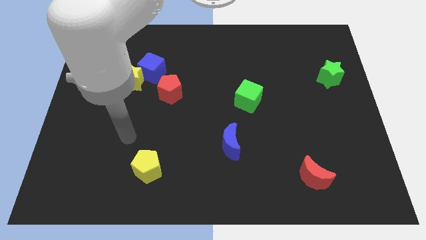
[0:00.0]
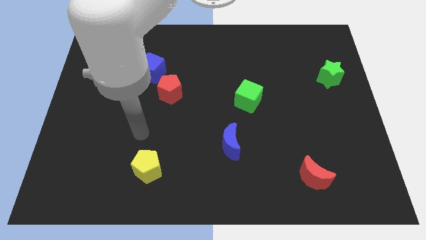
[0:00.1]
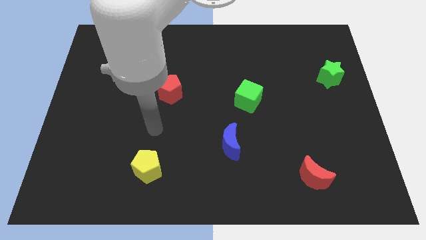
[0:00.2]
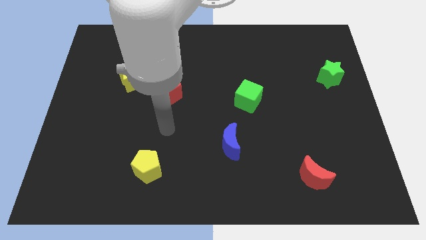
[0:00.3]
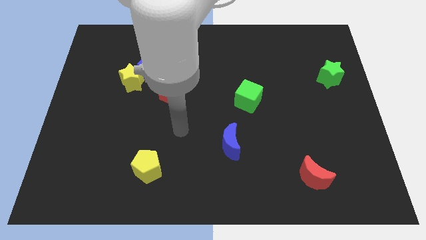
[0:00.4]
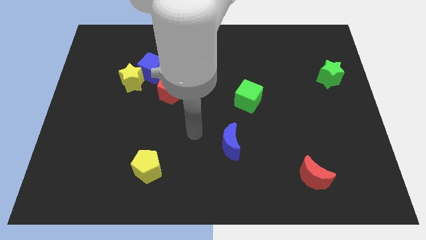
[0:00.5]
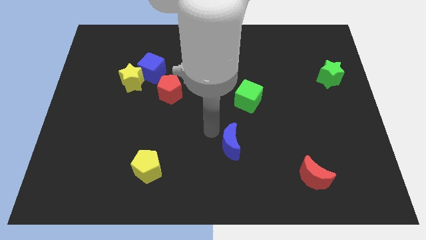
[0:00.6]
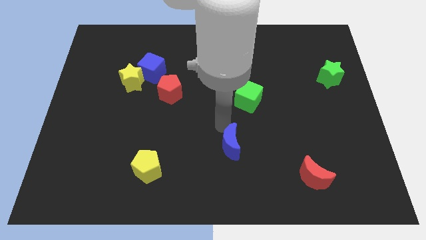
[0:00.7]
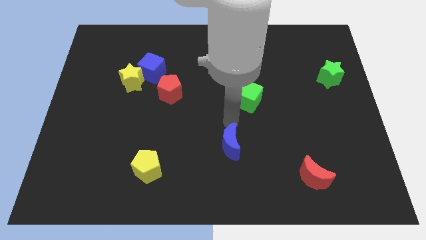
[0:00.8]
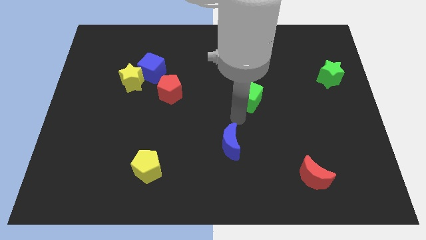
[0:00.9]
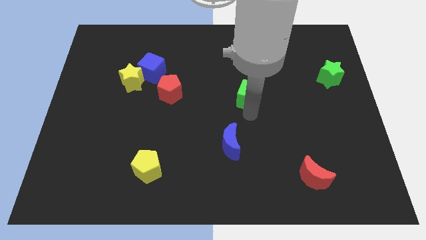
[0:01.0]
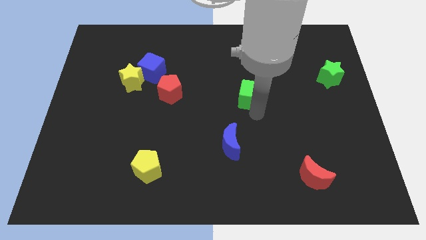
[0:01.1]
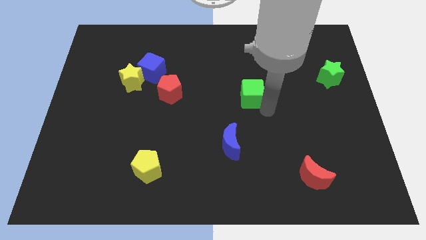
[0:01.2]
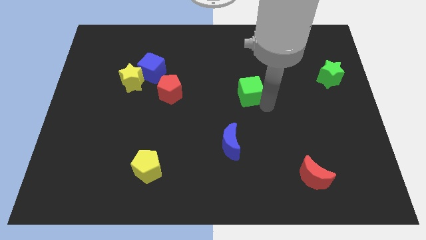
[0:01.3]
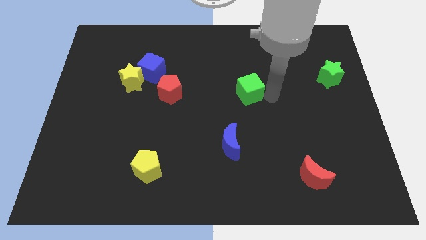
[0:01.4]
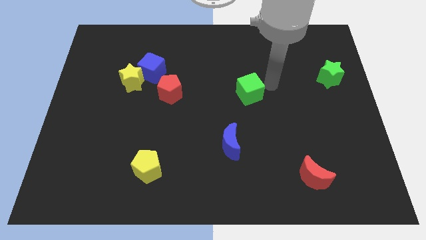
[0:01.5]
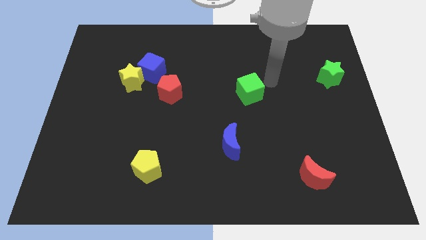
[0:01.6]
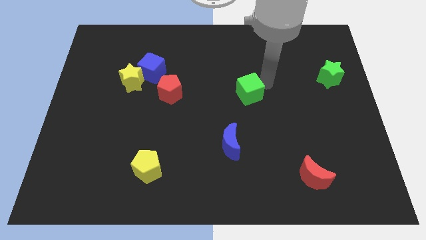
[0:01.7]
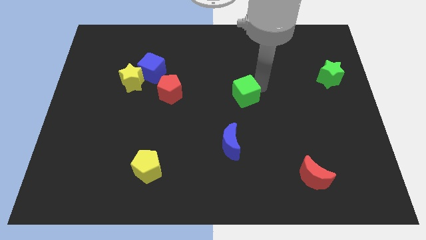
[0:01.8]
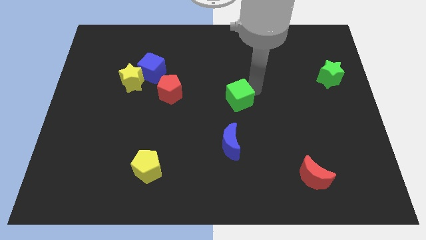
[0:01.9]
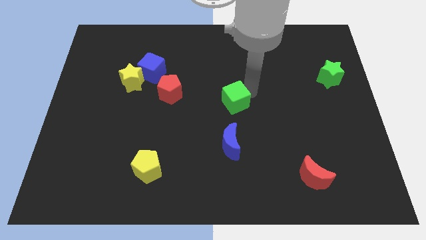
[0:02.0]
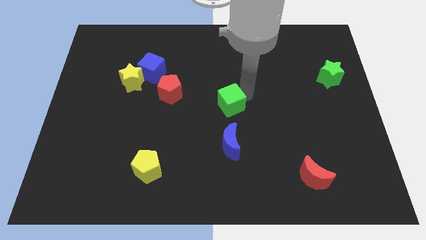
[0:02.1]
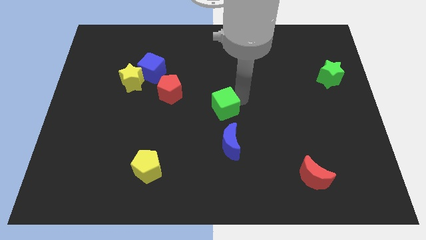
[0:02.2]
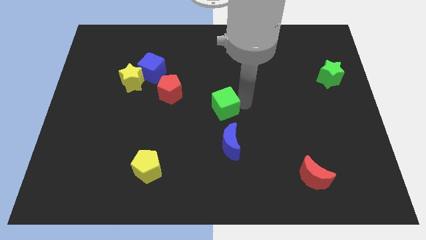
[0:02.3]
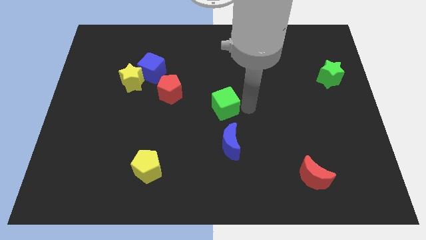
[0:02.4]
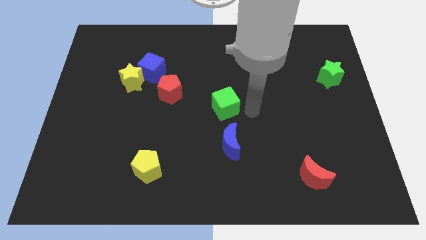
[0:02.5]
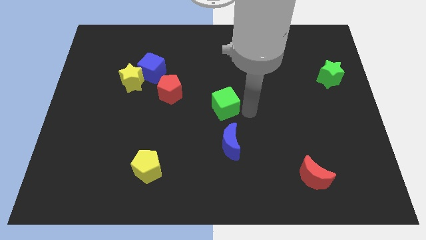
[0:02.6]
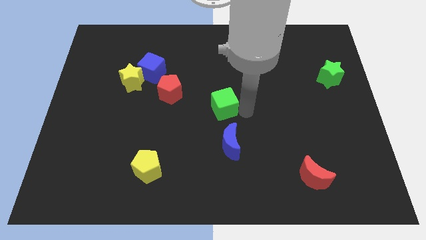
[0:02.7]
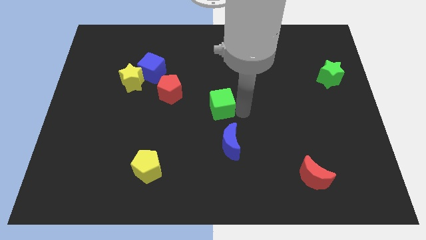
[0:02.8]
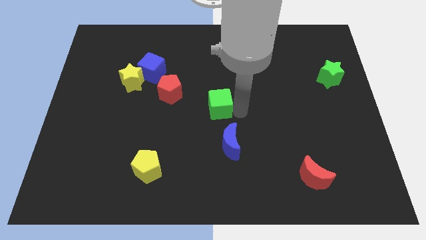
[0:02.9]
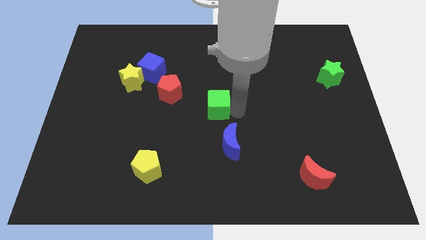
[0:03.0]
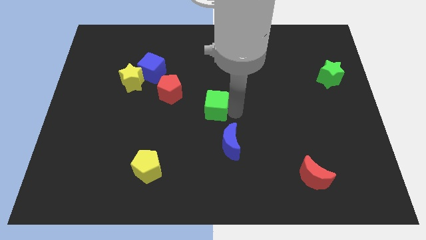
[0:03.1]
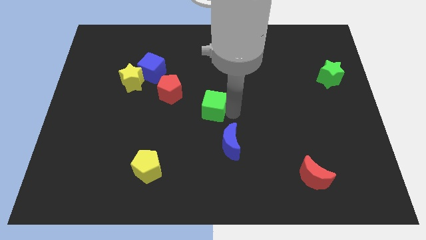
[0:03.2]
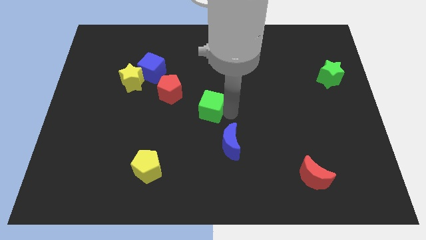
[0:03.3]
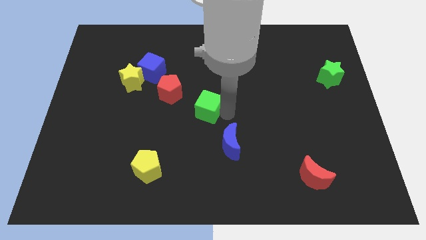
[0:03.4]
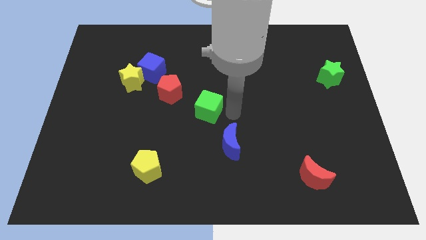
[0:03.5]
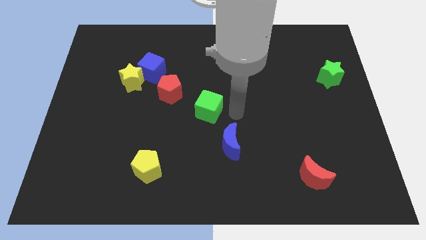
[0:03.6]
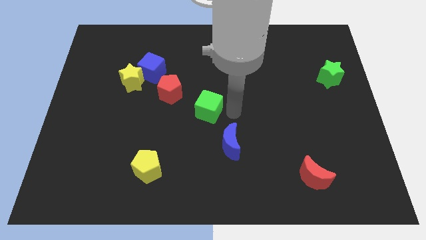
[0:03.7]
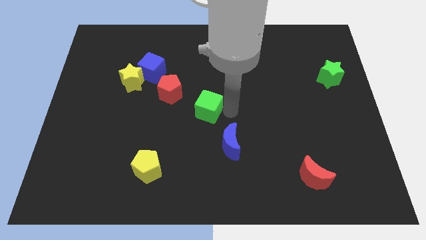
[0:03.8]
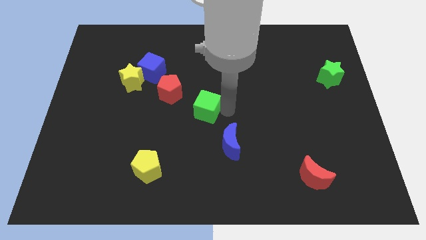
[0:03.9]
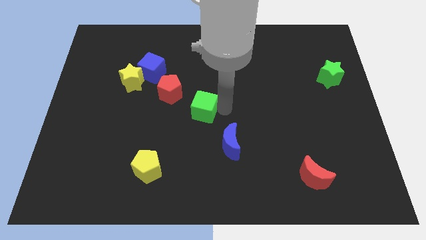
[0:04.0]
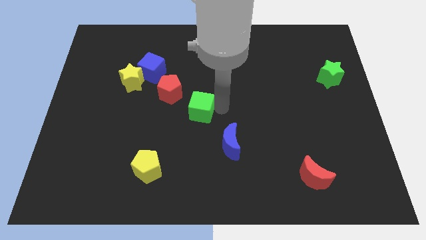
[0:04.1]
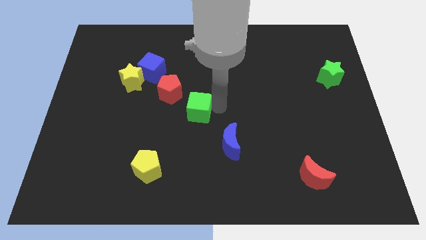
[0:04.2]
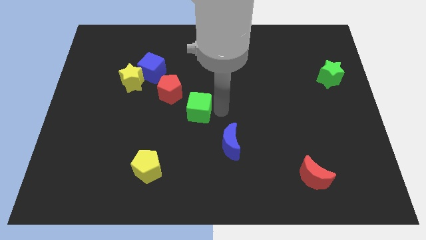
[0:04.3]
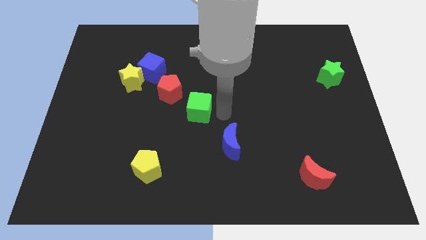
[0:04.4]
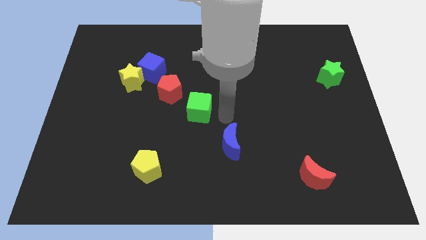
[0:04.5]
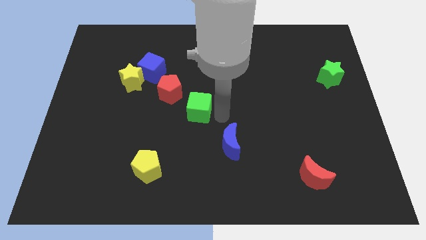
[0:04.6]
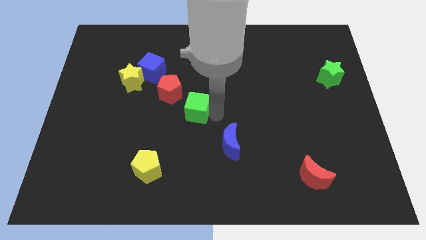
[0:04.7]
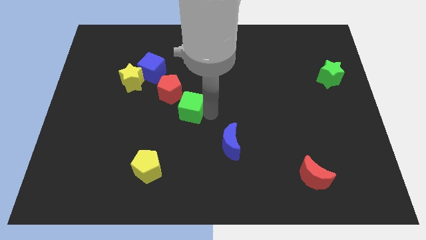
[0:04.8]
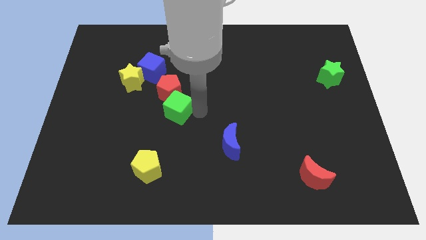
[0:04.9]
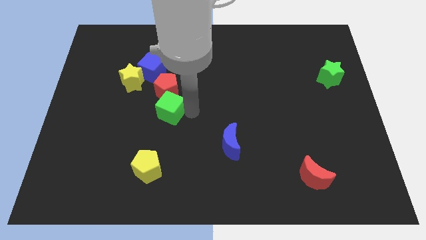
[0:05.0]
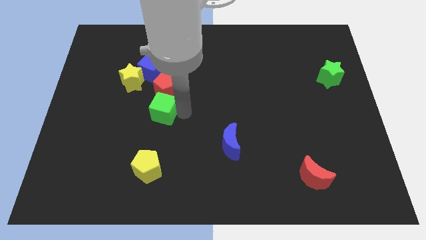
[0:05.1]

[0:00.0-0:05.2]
move the green cube diagonally down and to the right of the yellow star

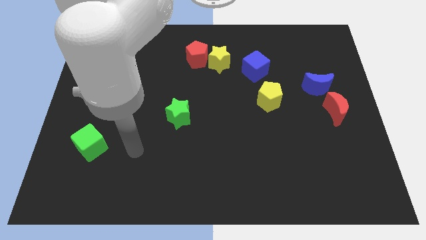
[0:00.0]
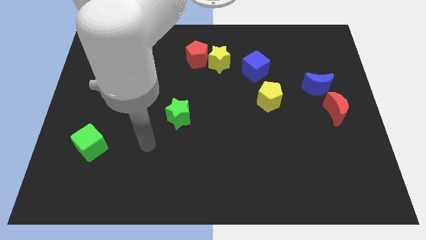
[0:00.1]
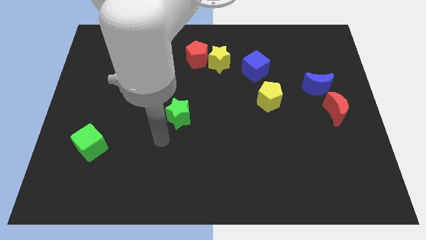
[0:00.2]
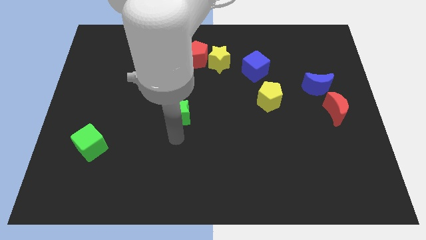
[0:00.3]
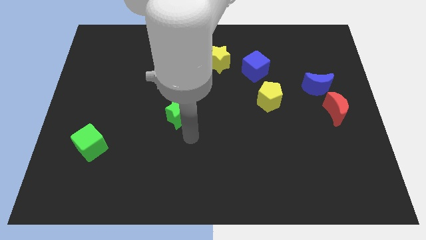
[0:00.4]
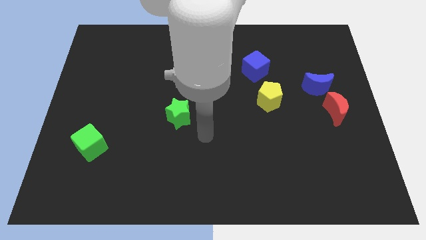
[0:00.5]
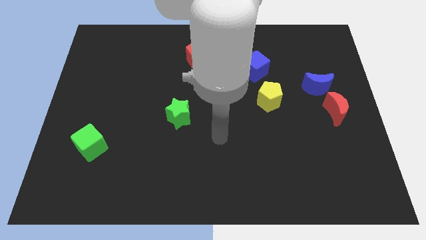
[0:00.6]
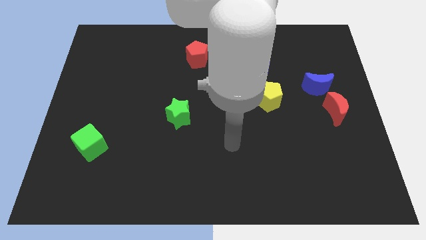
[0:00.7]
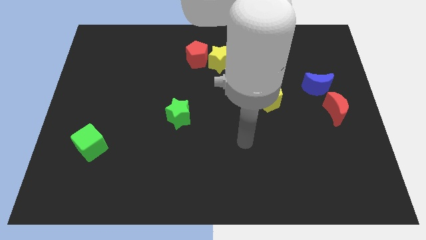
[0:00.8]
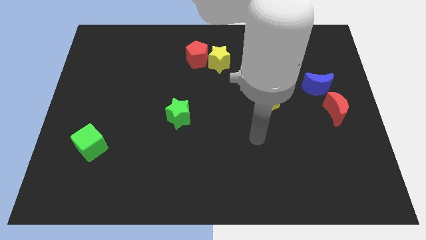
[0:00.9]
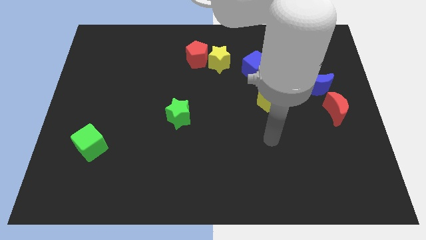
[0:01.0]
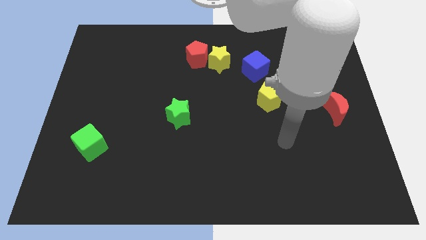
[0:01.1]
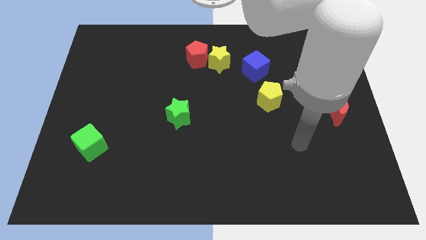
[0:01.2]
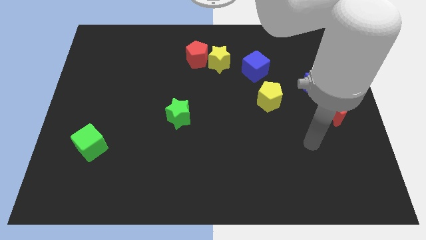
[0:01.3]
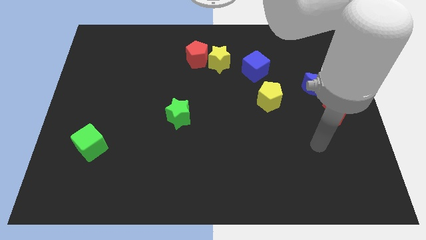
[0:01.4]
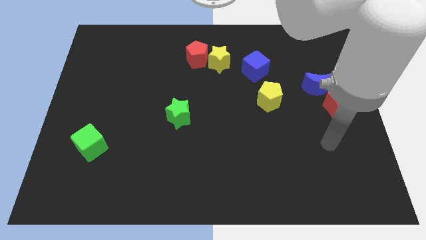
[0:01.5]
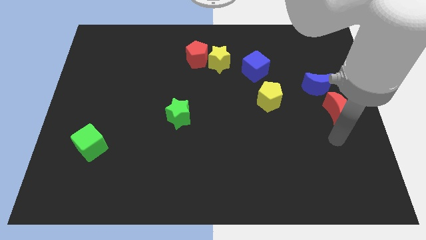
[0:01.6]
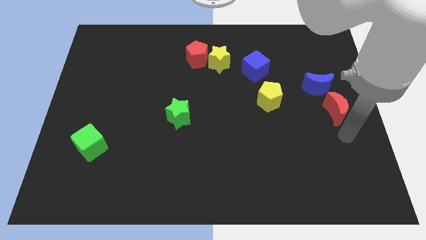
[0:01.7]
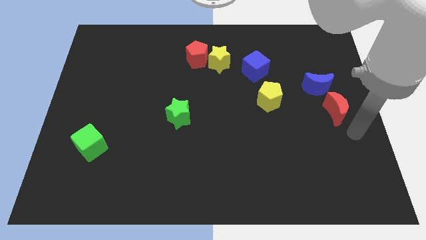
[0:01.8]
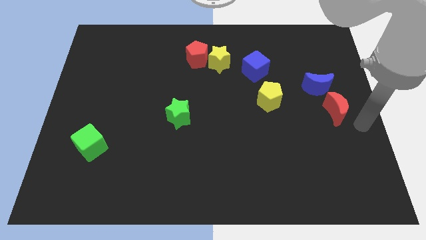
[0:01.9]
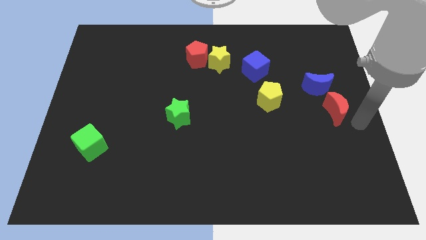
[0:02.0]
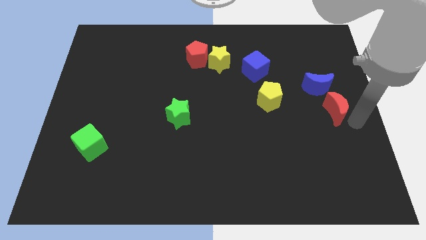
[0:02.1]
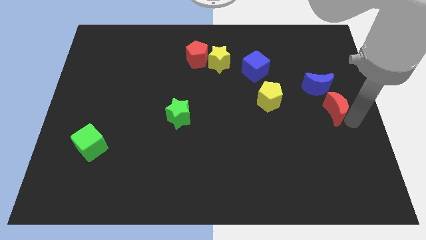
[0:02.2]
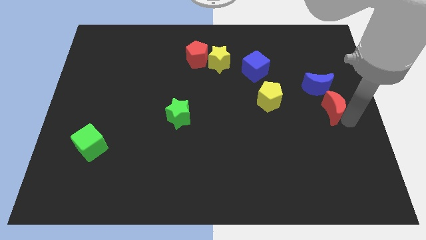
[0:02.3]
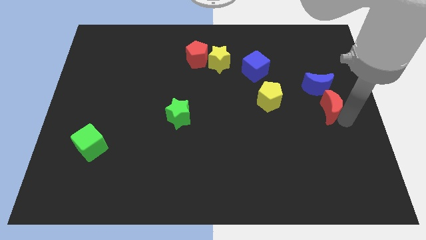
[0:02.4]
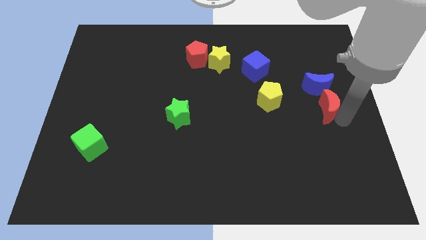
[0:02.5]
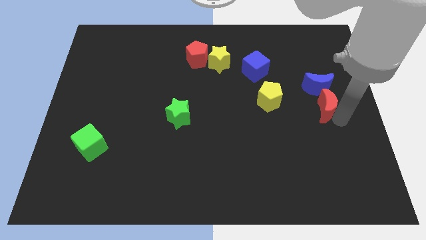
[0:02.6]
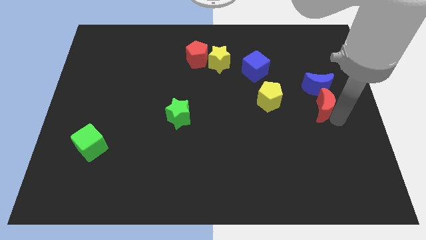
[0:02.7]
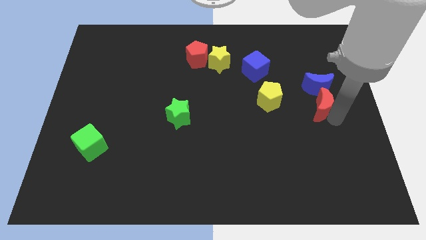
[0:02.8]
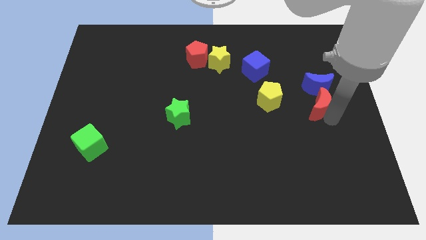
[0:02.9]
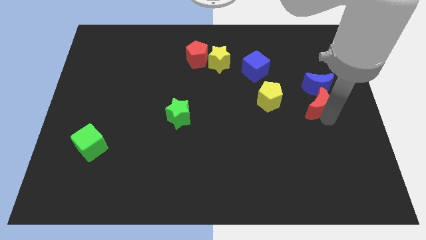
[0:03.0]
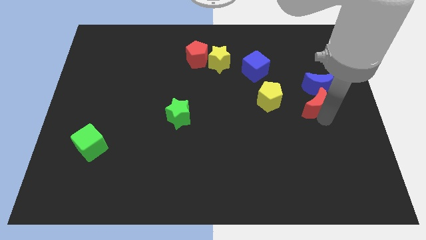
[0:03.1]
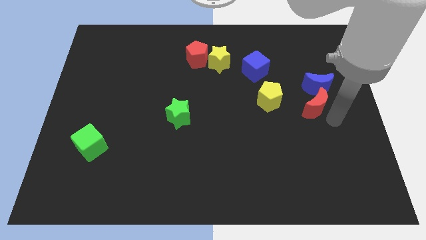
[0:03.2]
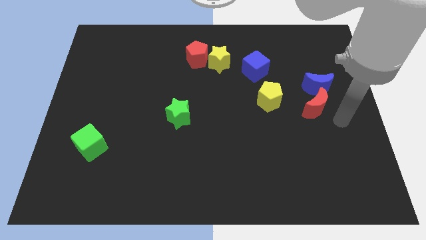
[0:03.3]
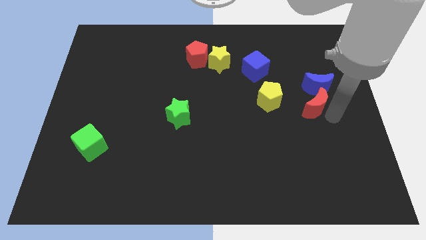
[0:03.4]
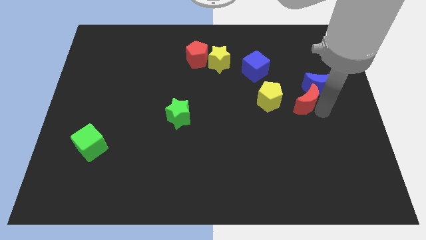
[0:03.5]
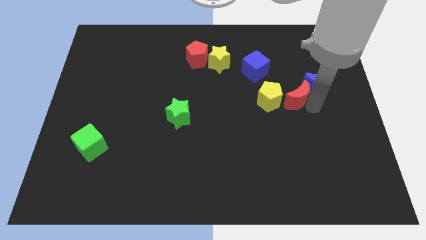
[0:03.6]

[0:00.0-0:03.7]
put the red moon to the left side of the blue moon
